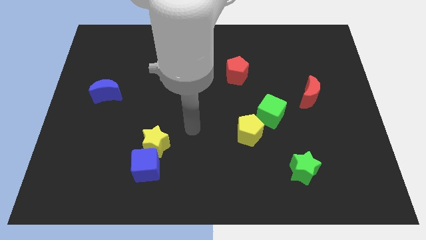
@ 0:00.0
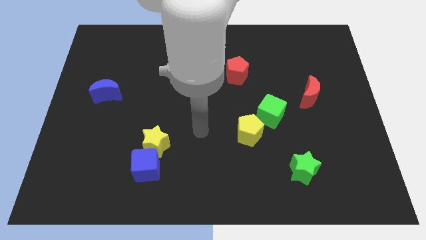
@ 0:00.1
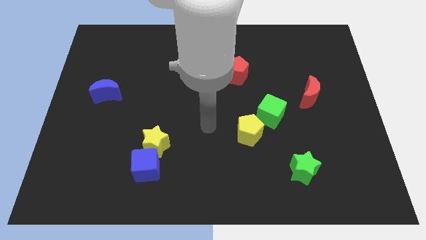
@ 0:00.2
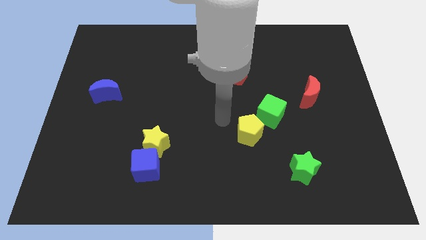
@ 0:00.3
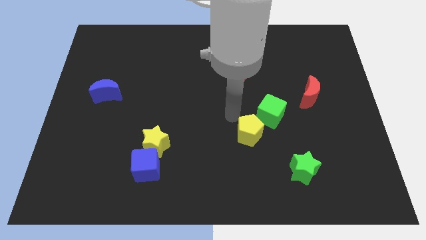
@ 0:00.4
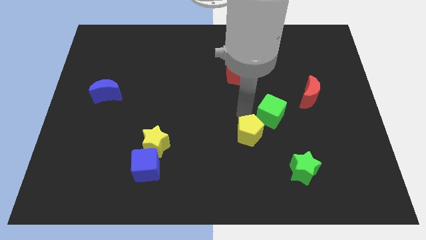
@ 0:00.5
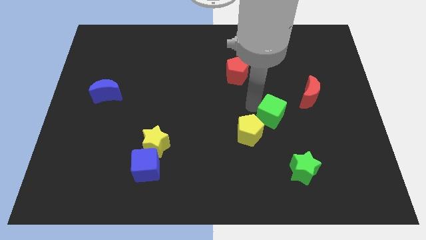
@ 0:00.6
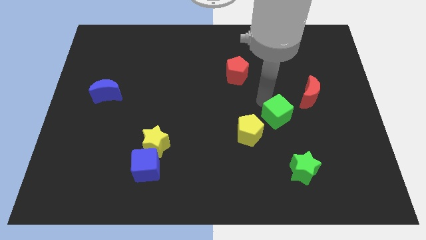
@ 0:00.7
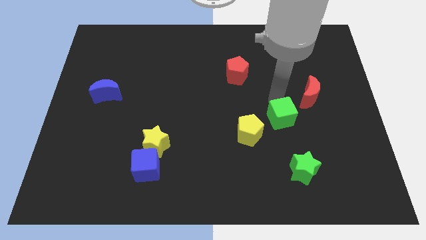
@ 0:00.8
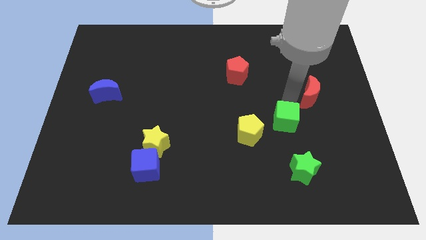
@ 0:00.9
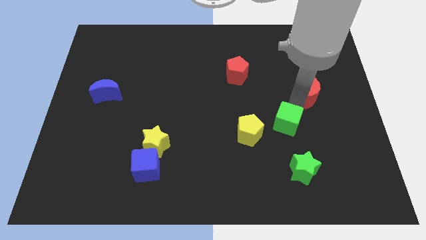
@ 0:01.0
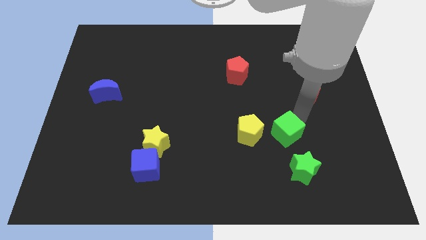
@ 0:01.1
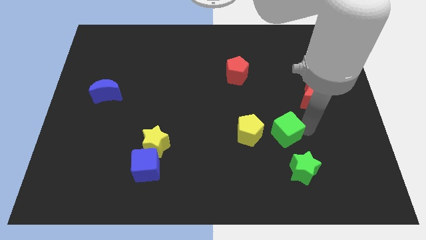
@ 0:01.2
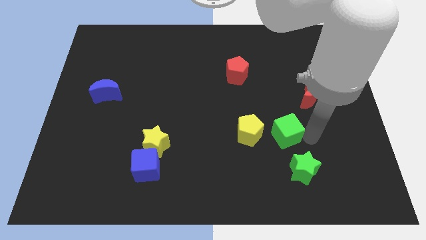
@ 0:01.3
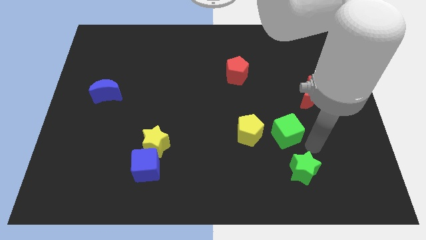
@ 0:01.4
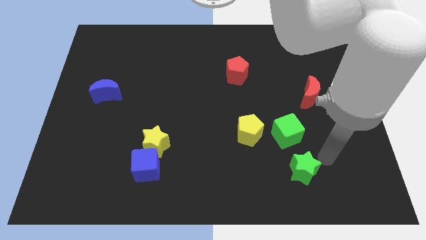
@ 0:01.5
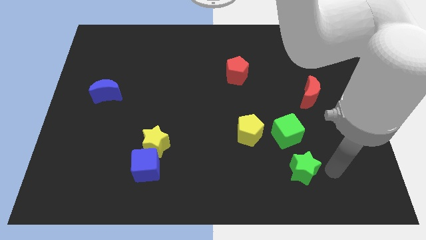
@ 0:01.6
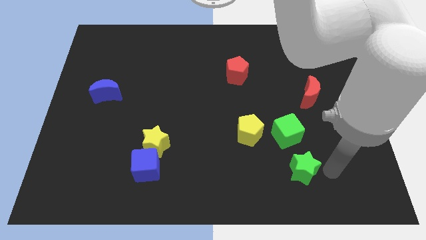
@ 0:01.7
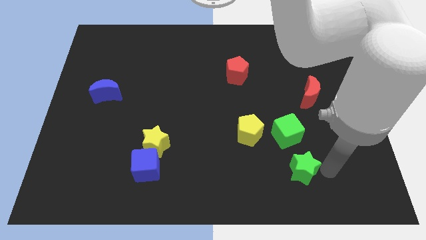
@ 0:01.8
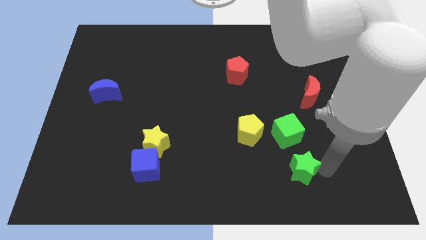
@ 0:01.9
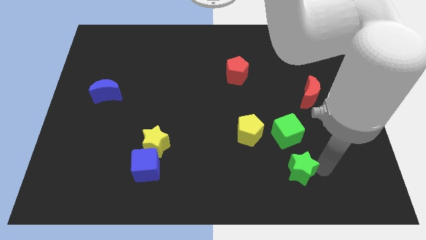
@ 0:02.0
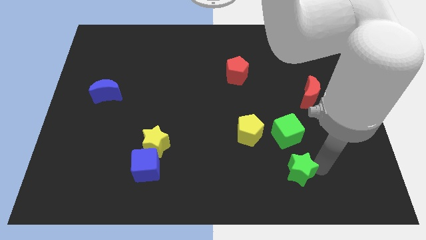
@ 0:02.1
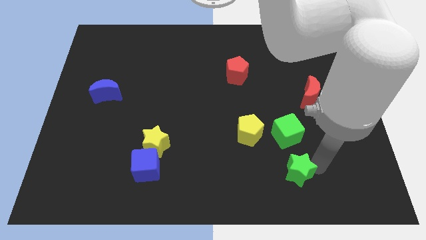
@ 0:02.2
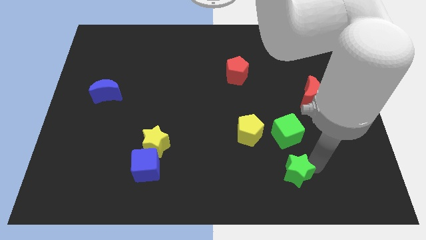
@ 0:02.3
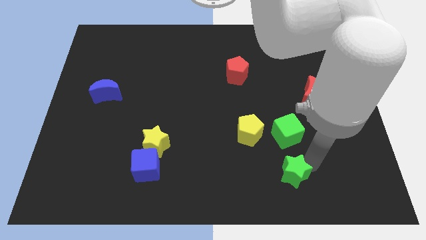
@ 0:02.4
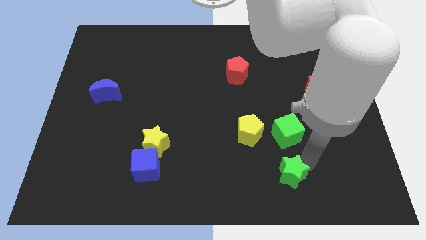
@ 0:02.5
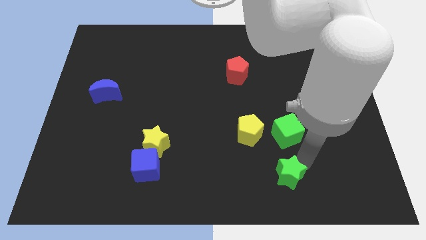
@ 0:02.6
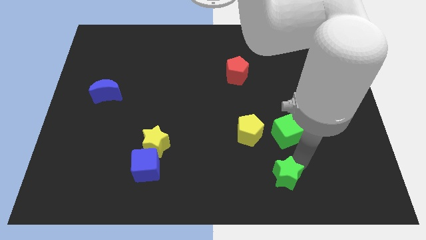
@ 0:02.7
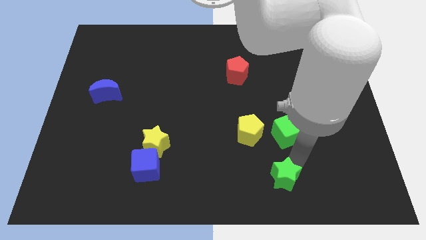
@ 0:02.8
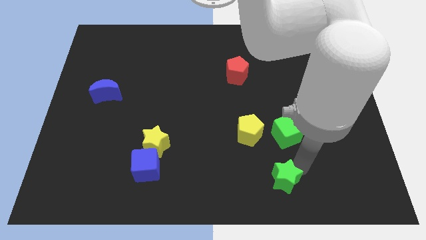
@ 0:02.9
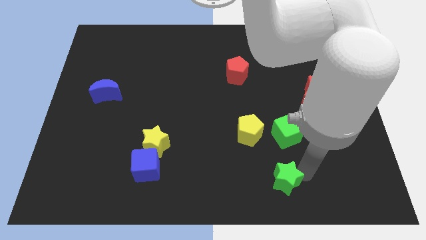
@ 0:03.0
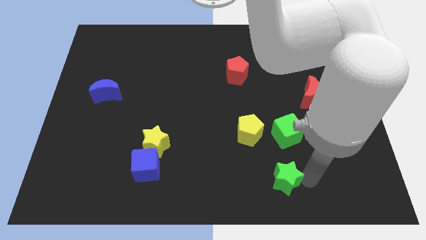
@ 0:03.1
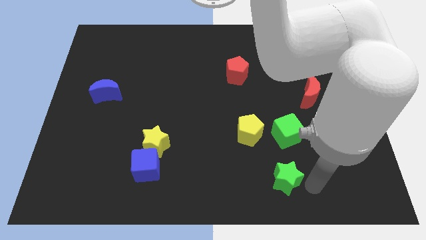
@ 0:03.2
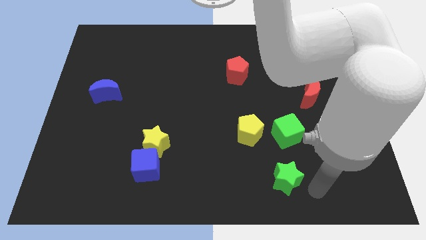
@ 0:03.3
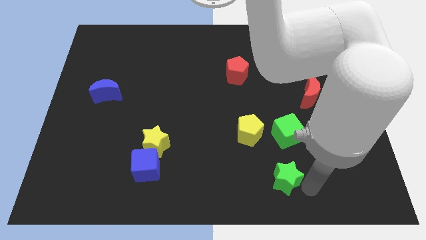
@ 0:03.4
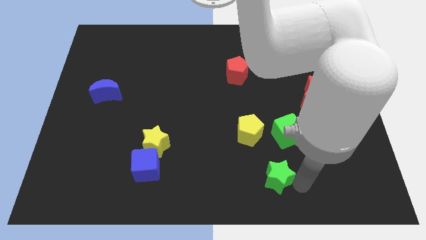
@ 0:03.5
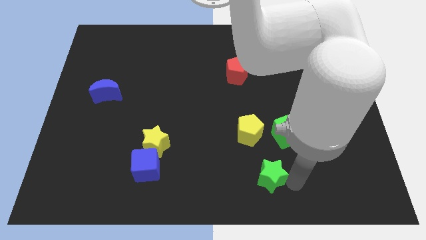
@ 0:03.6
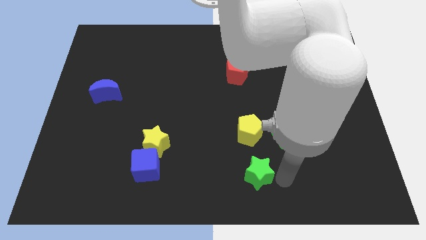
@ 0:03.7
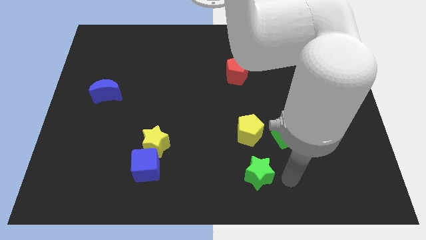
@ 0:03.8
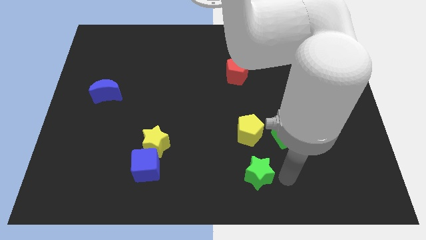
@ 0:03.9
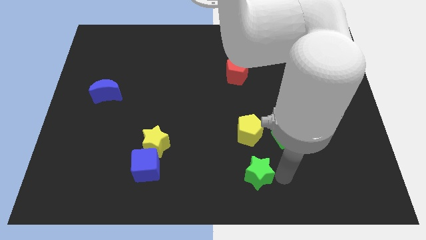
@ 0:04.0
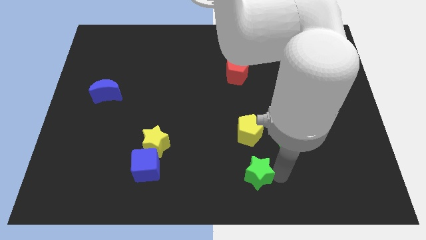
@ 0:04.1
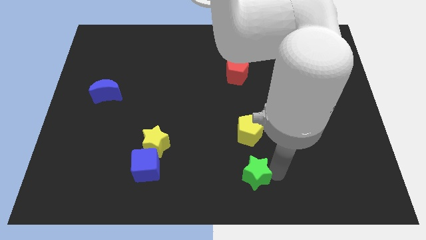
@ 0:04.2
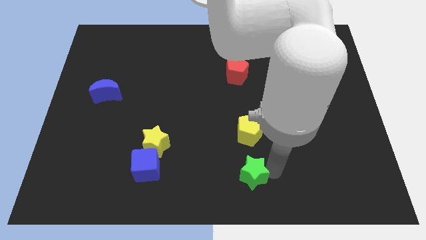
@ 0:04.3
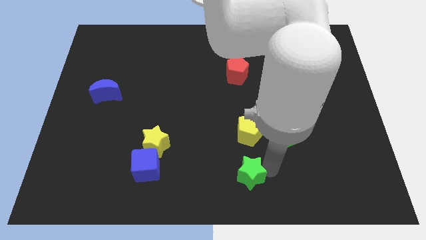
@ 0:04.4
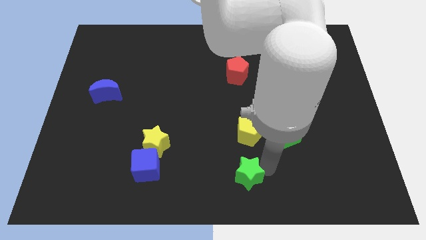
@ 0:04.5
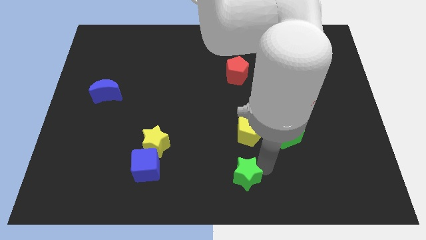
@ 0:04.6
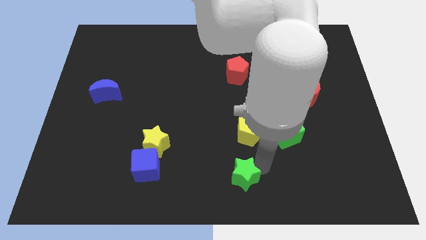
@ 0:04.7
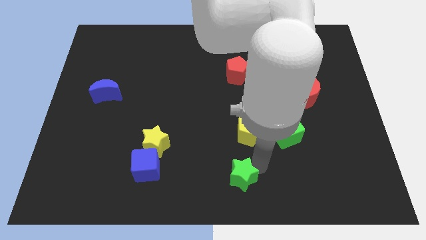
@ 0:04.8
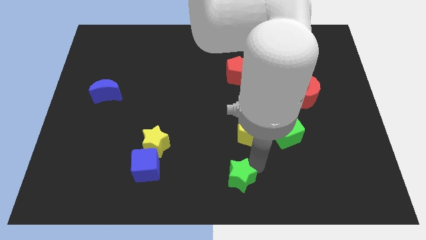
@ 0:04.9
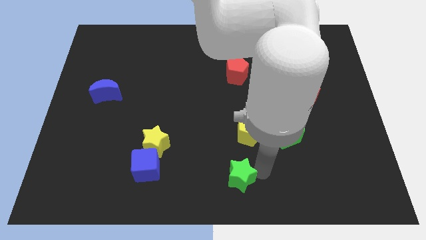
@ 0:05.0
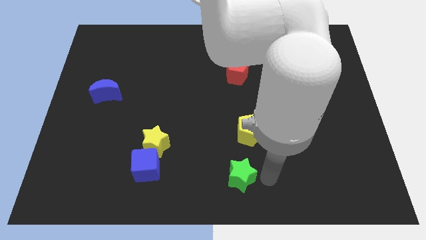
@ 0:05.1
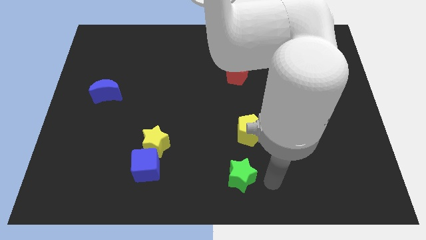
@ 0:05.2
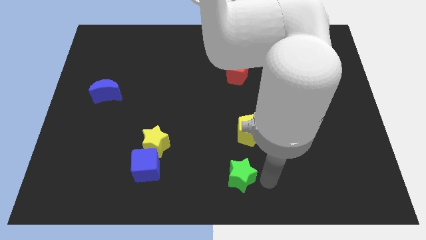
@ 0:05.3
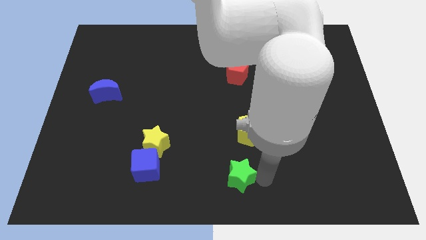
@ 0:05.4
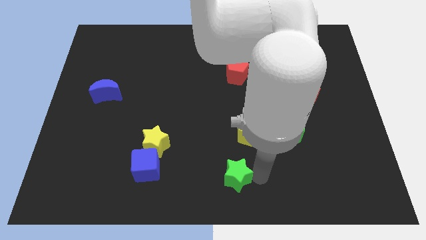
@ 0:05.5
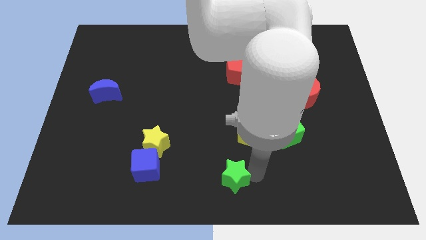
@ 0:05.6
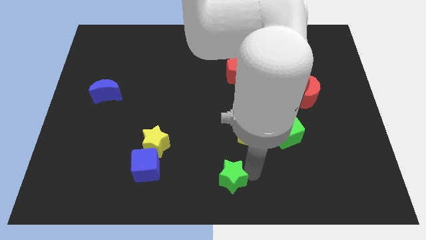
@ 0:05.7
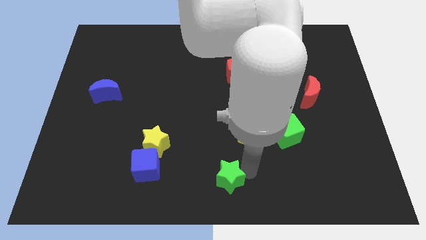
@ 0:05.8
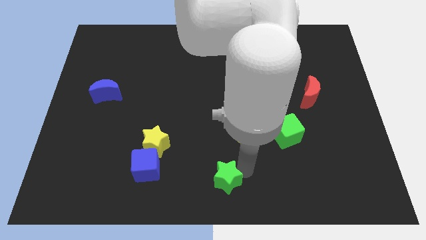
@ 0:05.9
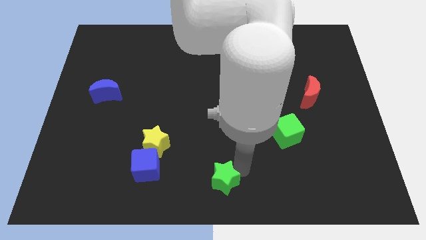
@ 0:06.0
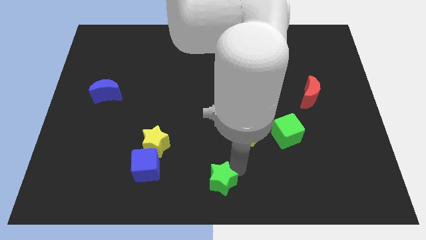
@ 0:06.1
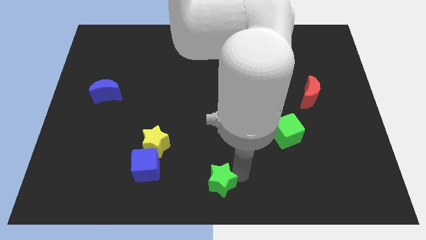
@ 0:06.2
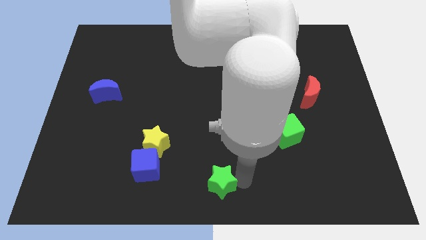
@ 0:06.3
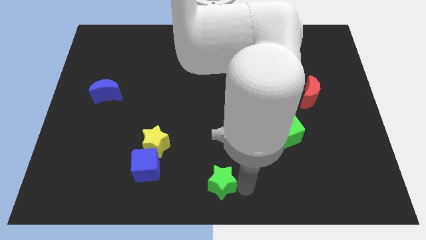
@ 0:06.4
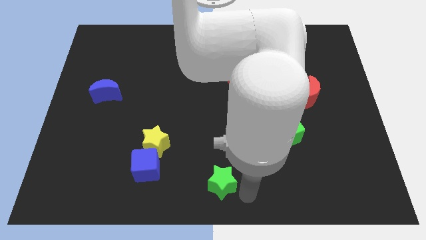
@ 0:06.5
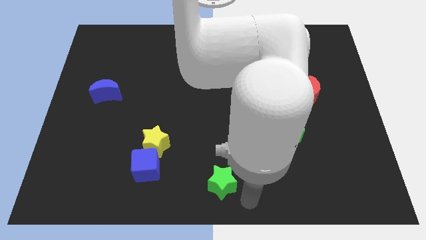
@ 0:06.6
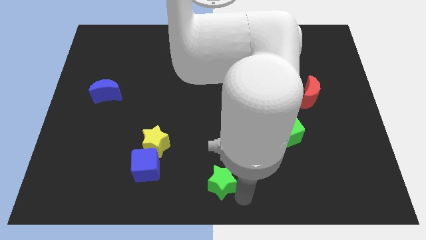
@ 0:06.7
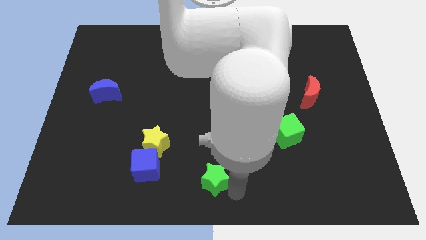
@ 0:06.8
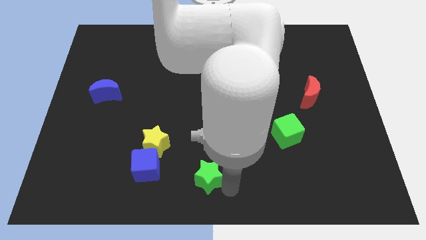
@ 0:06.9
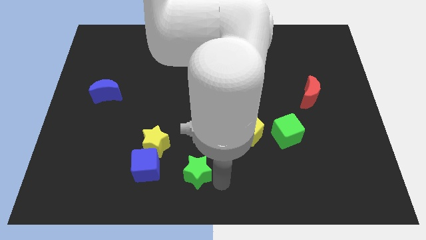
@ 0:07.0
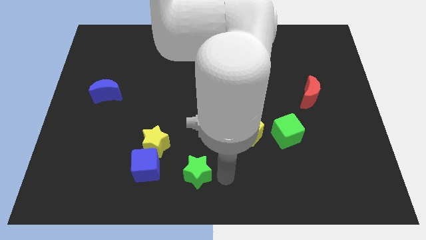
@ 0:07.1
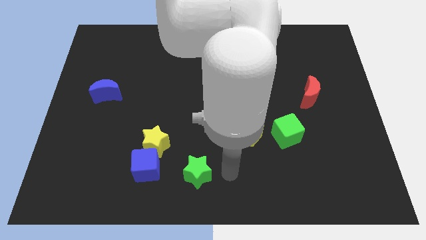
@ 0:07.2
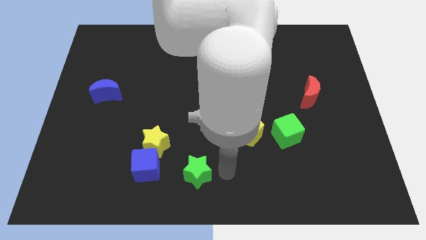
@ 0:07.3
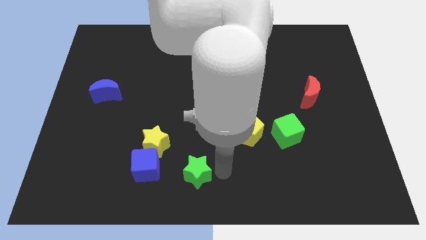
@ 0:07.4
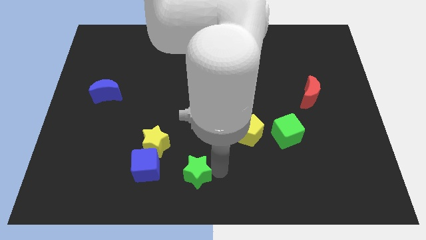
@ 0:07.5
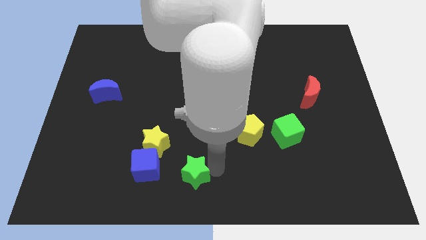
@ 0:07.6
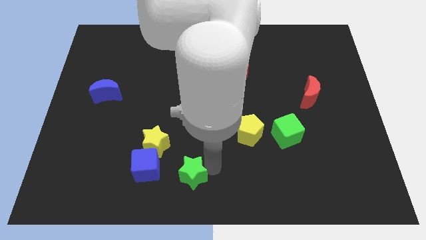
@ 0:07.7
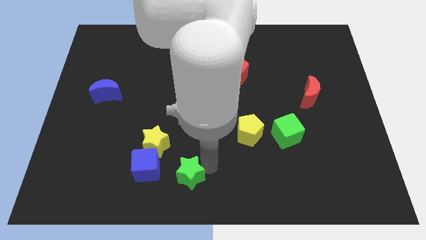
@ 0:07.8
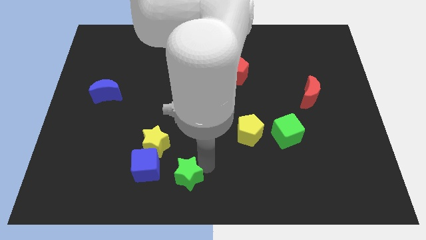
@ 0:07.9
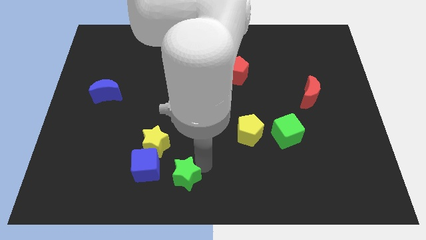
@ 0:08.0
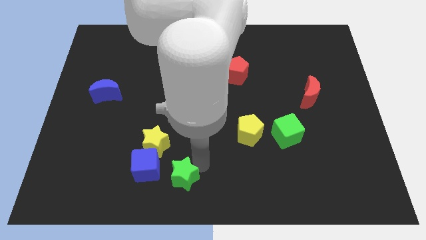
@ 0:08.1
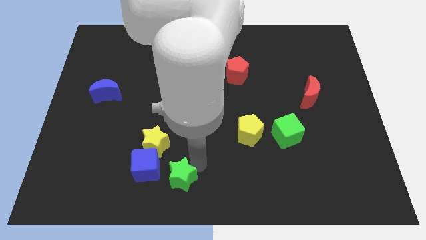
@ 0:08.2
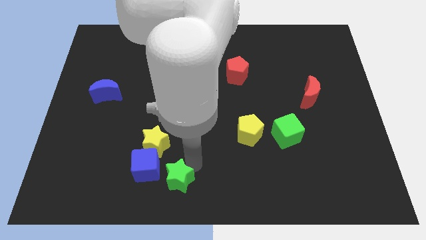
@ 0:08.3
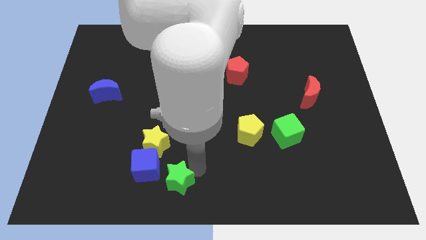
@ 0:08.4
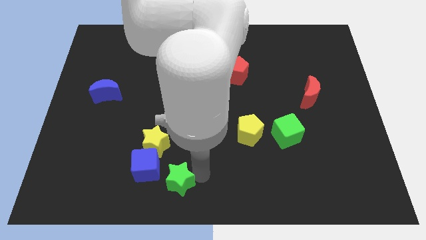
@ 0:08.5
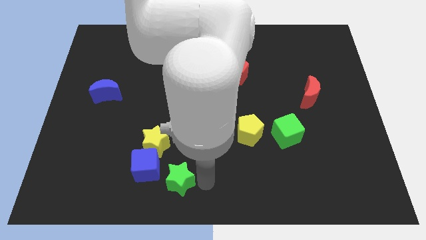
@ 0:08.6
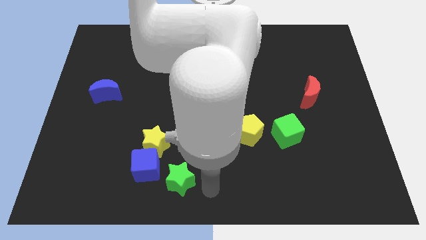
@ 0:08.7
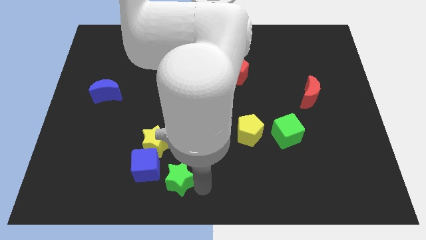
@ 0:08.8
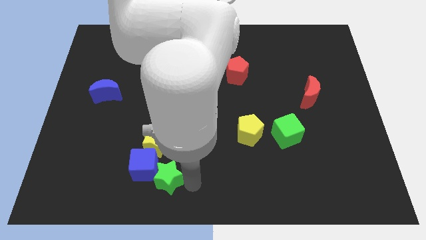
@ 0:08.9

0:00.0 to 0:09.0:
push the green star close to the blue cube
